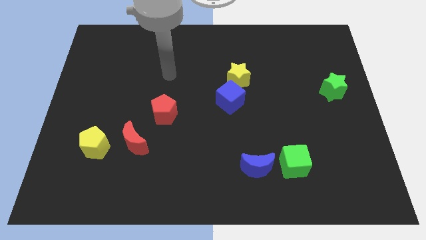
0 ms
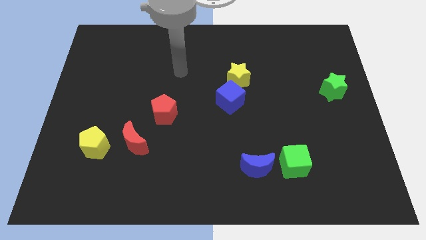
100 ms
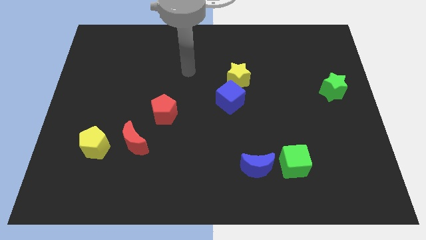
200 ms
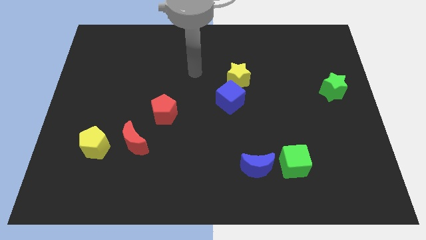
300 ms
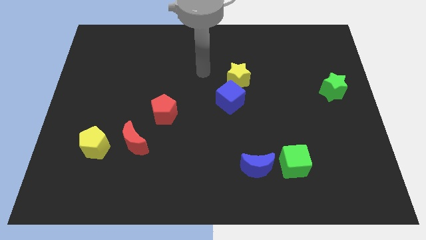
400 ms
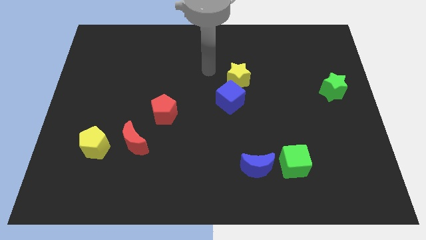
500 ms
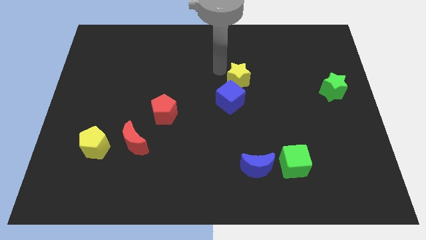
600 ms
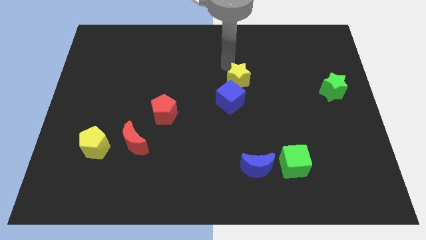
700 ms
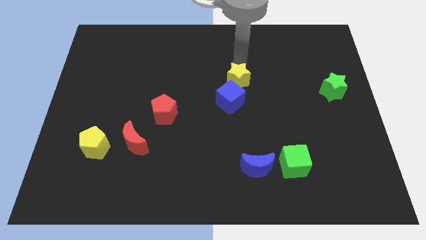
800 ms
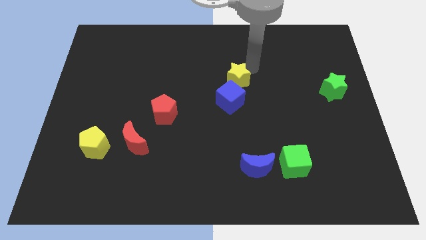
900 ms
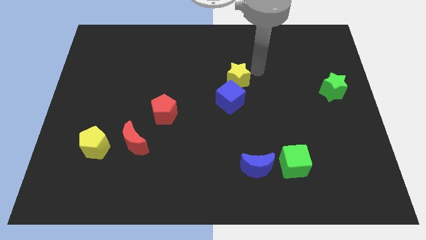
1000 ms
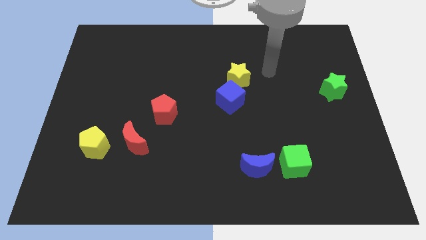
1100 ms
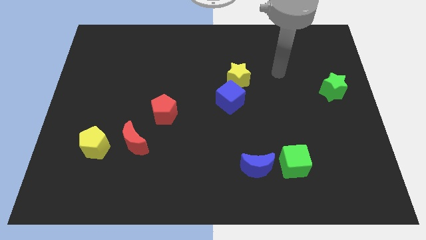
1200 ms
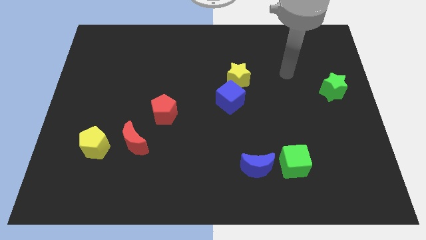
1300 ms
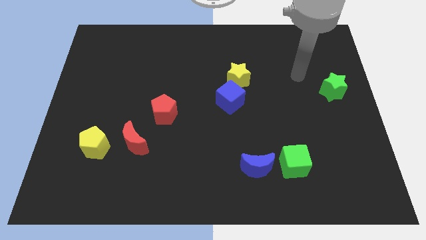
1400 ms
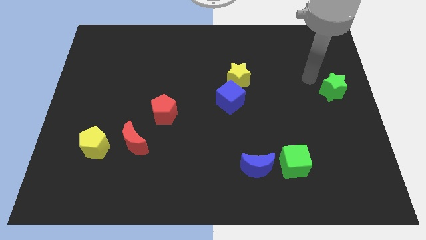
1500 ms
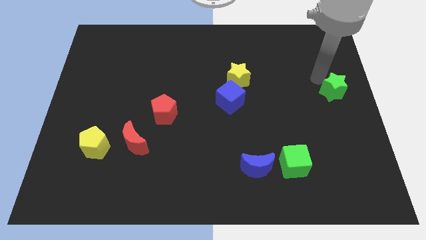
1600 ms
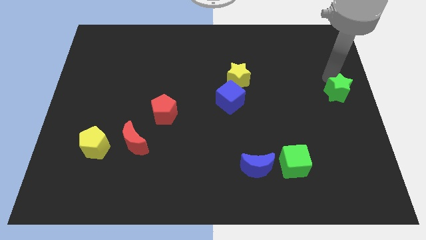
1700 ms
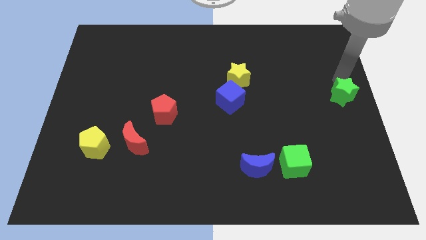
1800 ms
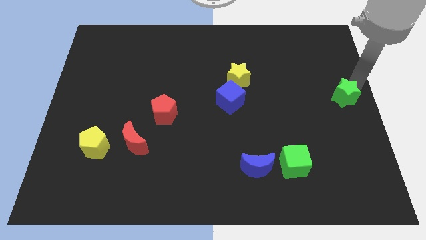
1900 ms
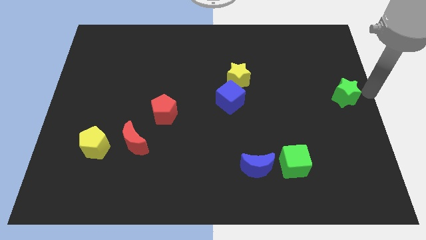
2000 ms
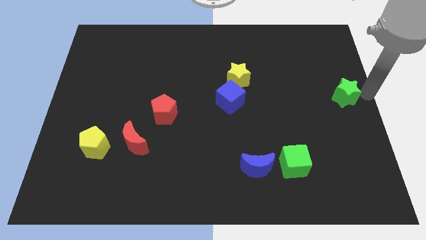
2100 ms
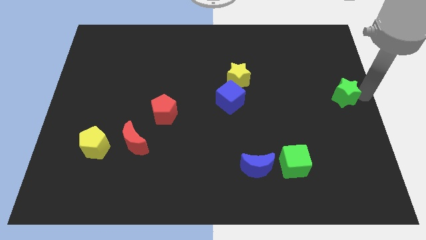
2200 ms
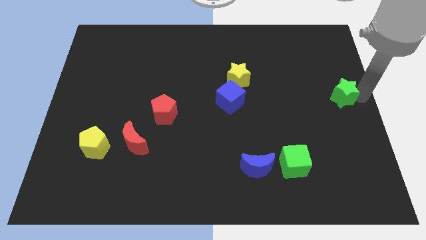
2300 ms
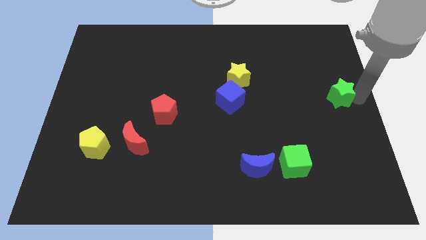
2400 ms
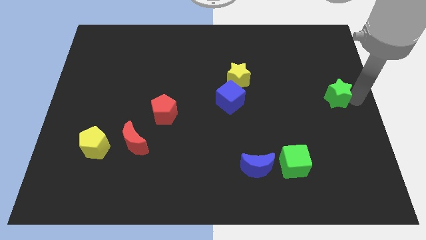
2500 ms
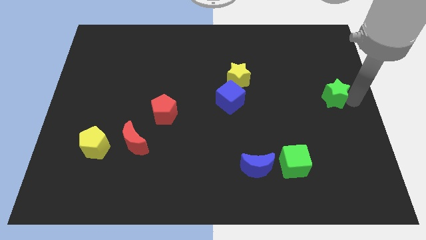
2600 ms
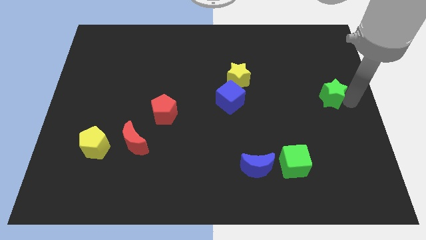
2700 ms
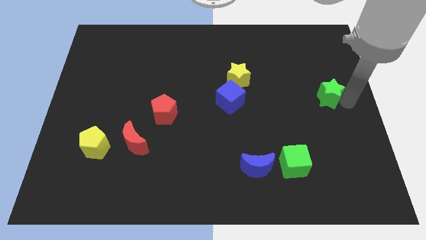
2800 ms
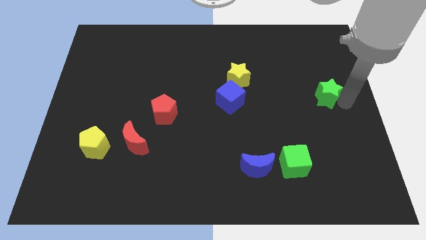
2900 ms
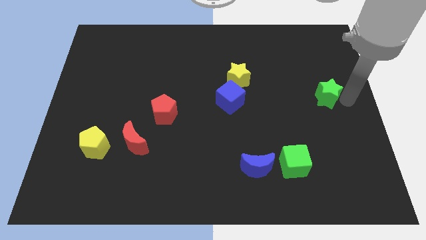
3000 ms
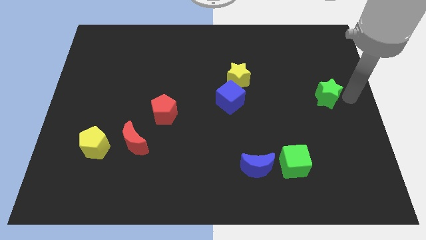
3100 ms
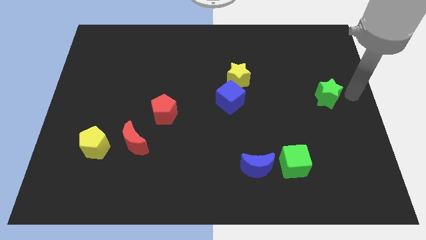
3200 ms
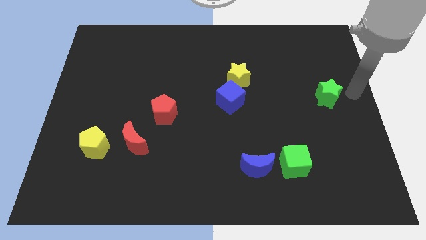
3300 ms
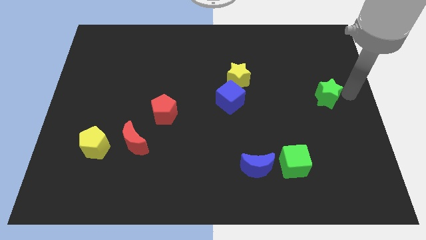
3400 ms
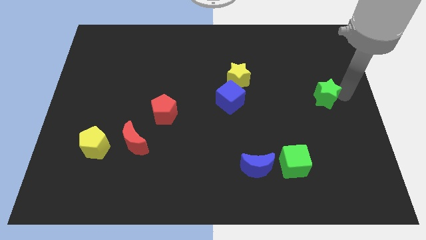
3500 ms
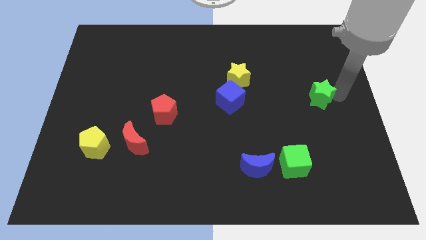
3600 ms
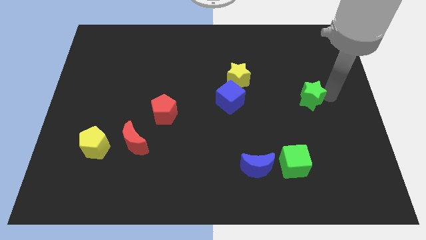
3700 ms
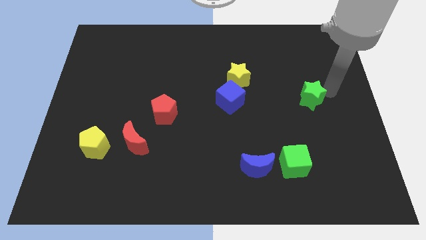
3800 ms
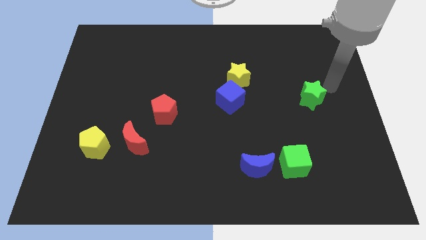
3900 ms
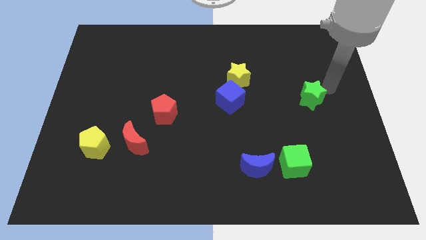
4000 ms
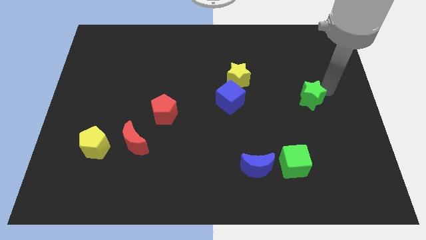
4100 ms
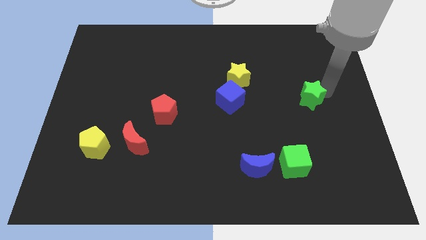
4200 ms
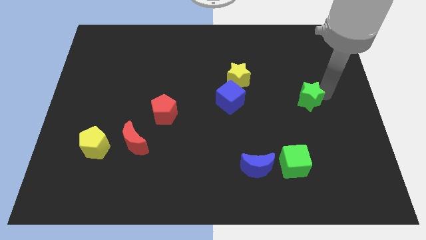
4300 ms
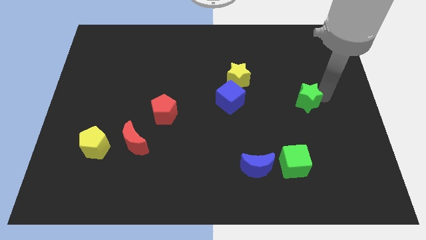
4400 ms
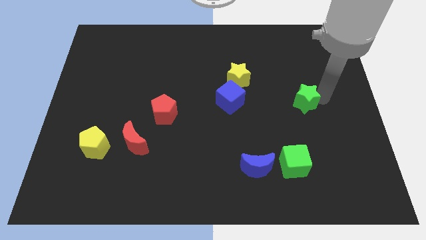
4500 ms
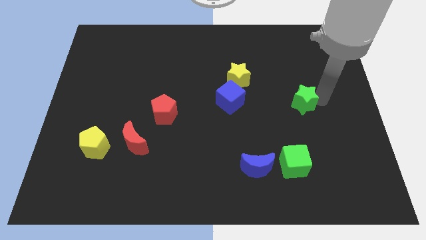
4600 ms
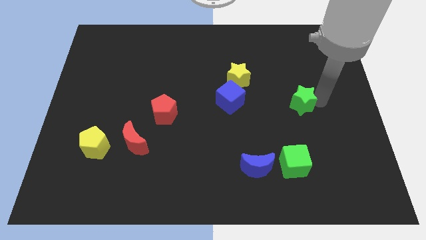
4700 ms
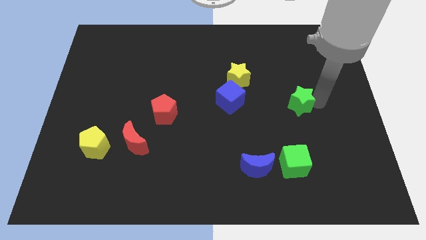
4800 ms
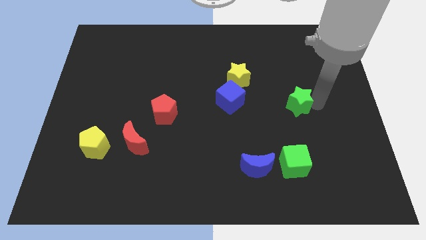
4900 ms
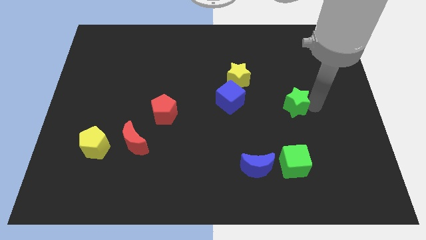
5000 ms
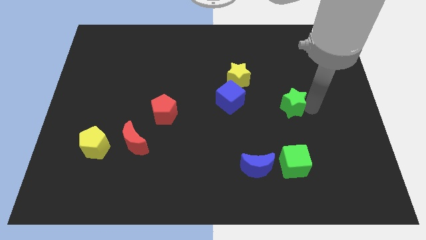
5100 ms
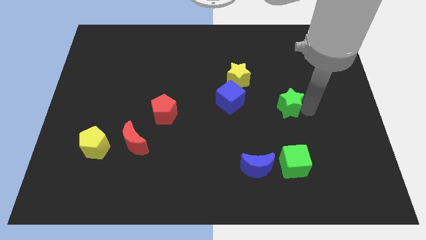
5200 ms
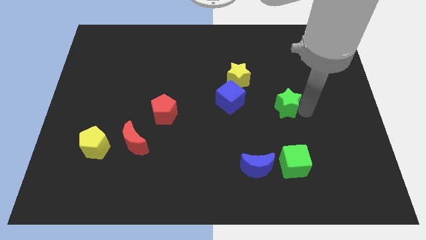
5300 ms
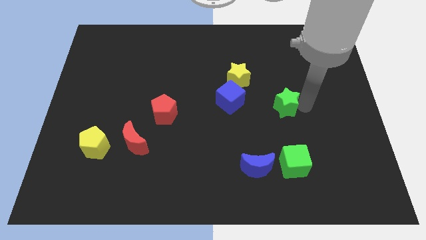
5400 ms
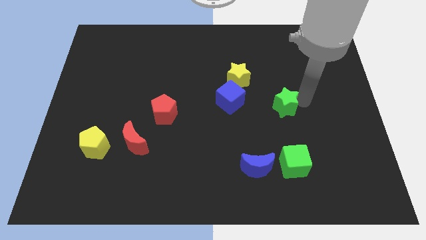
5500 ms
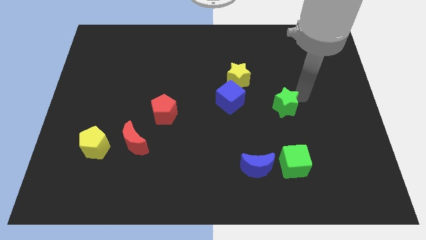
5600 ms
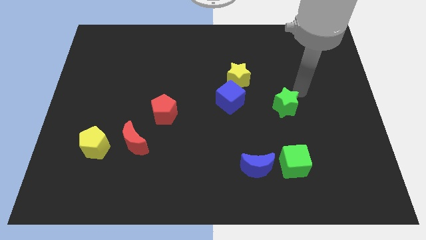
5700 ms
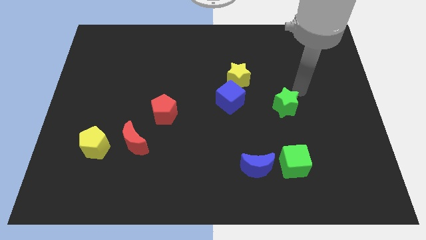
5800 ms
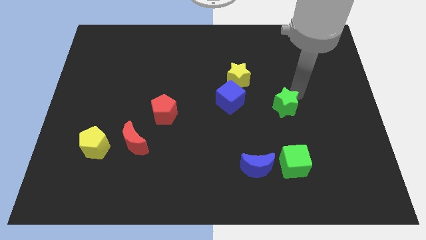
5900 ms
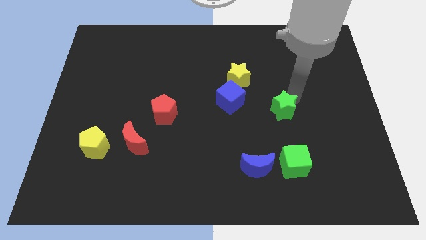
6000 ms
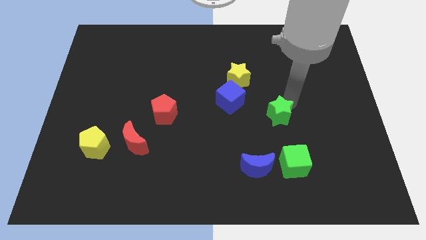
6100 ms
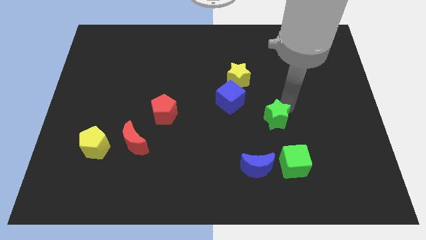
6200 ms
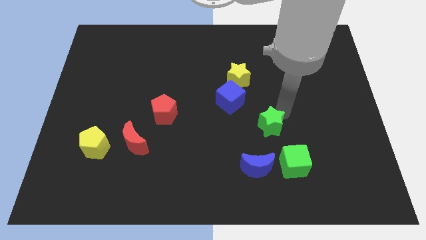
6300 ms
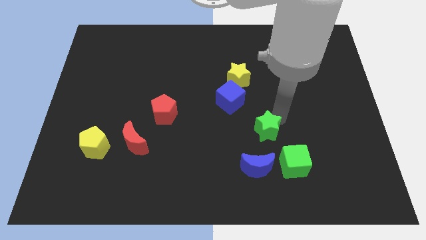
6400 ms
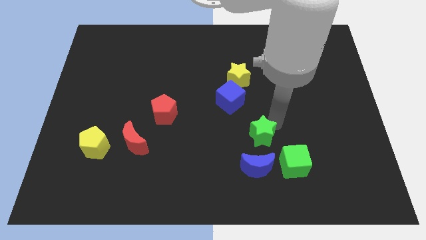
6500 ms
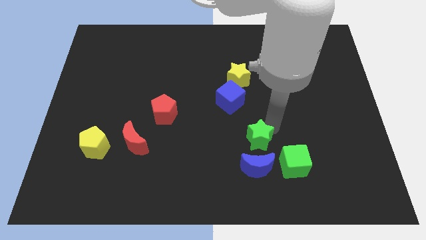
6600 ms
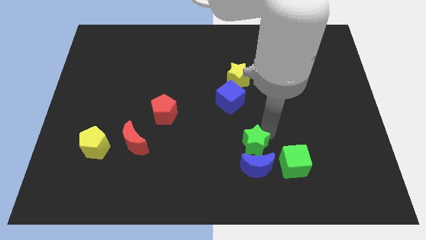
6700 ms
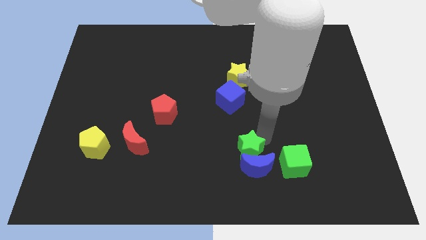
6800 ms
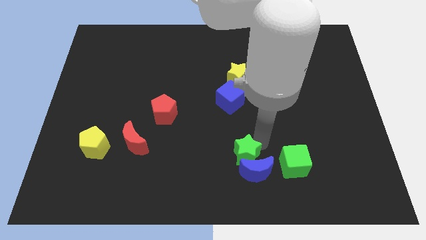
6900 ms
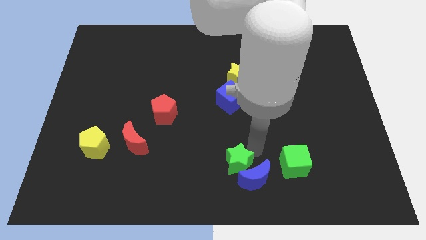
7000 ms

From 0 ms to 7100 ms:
put the green star just left of the blue moon
